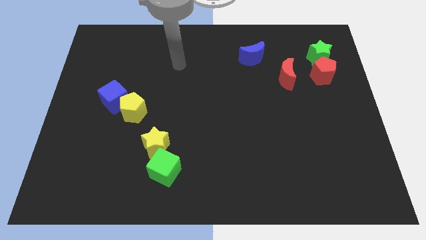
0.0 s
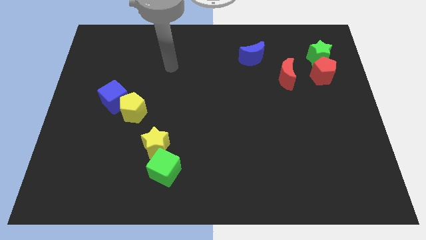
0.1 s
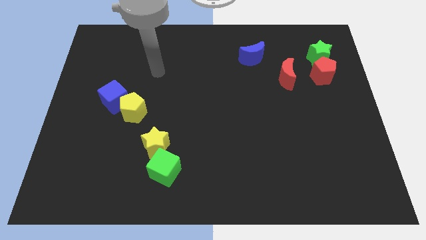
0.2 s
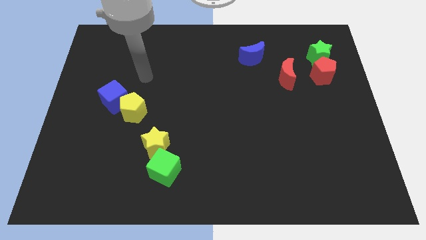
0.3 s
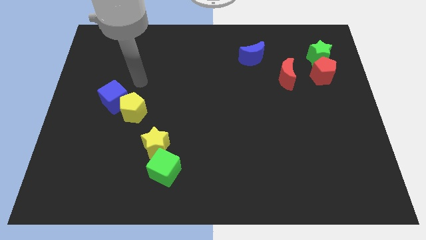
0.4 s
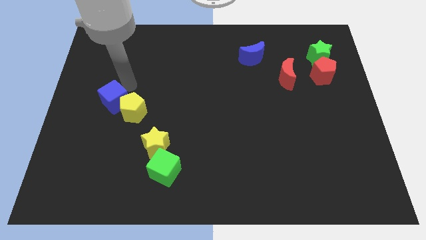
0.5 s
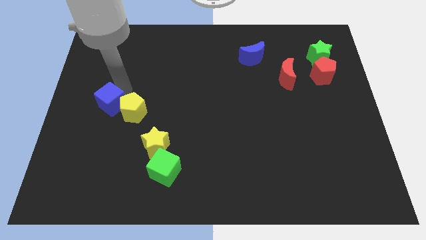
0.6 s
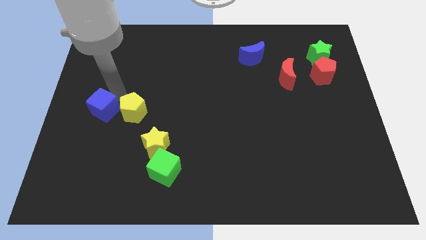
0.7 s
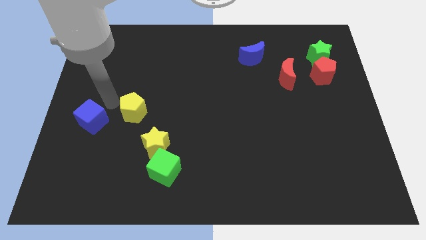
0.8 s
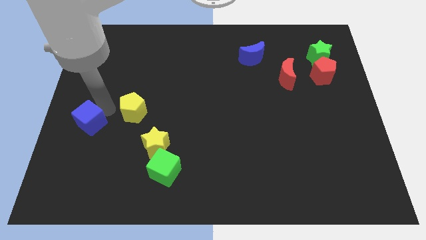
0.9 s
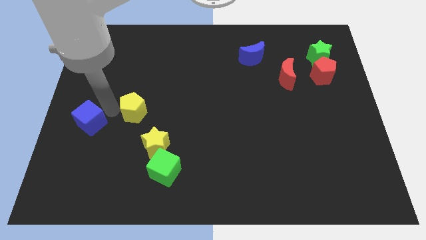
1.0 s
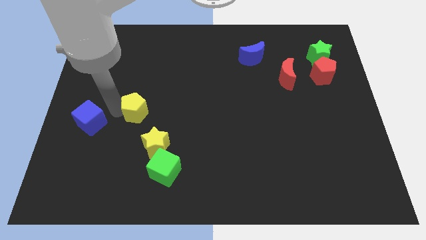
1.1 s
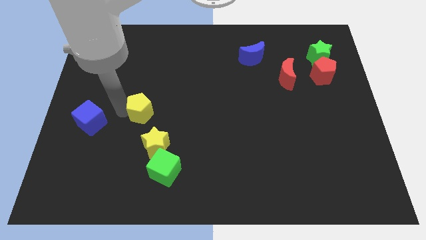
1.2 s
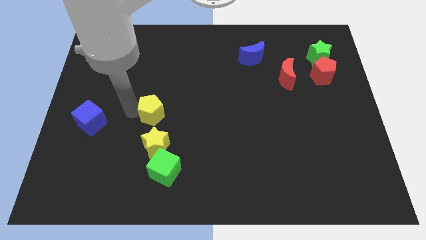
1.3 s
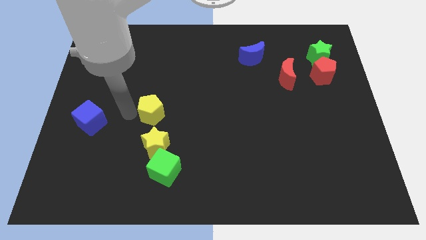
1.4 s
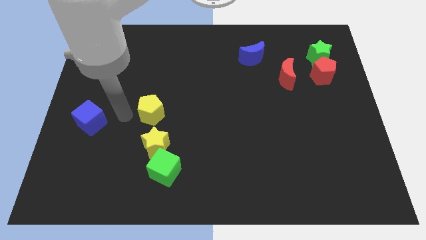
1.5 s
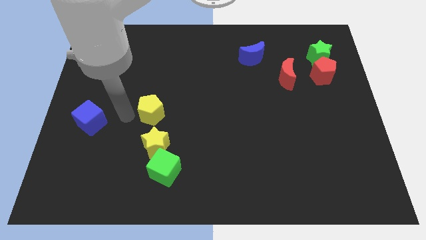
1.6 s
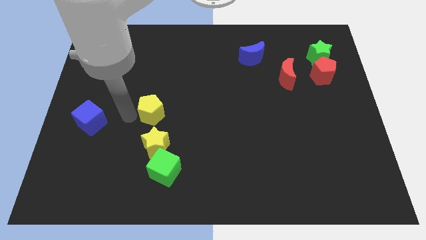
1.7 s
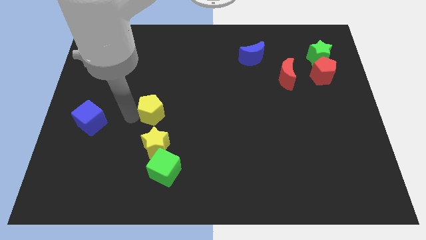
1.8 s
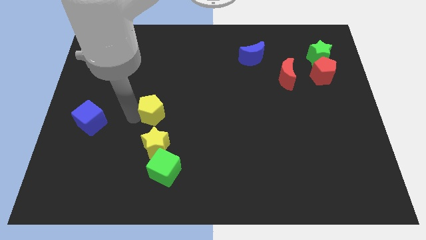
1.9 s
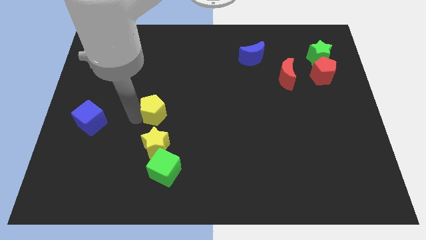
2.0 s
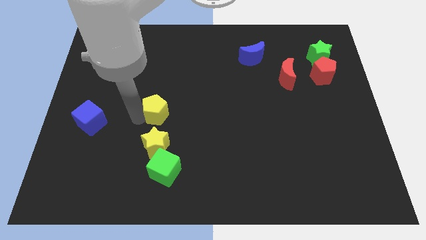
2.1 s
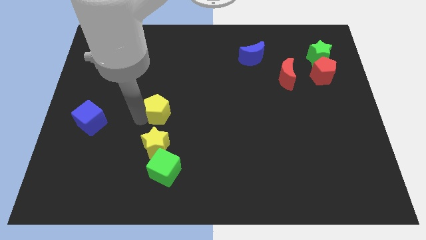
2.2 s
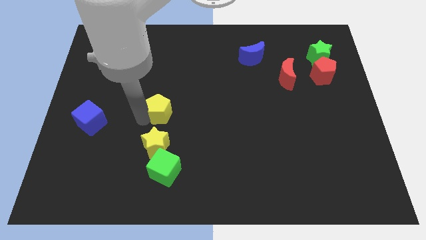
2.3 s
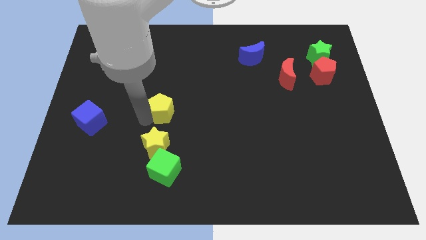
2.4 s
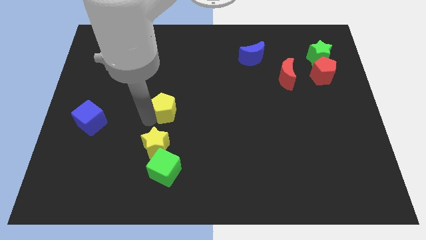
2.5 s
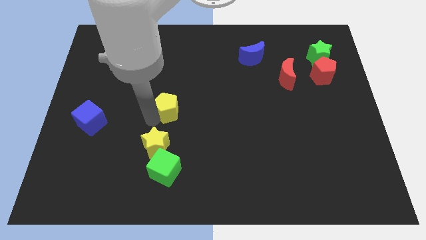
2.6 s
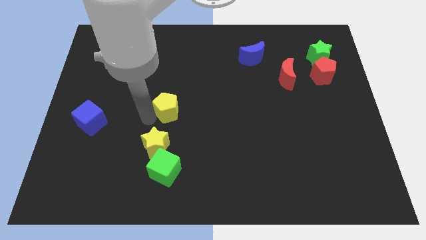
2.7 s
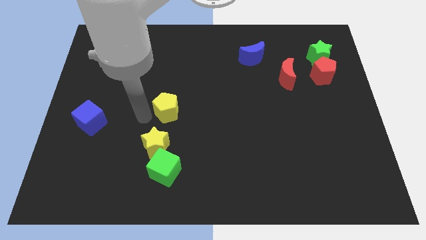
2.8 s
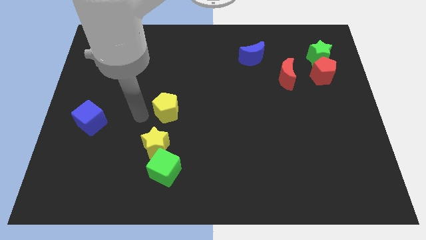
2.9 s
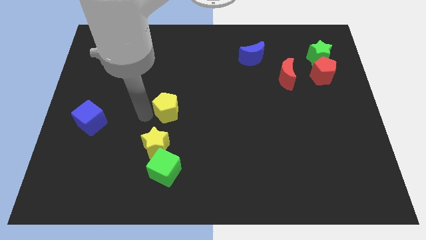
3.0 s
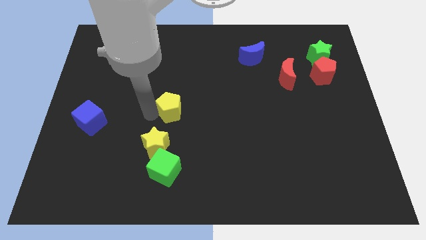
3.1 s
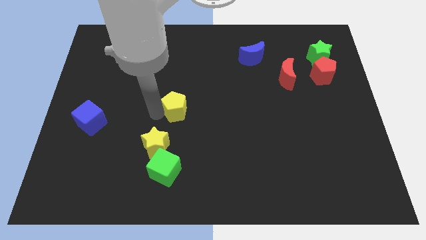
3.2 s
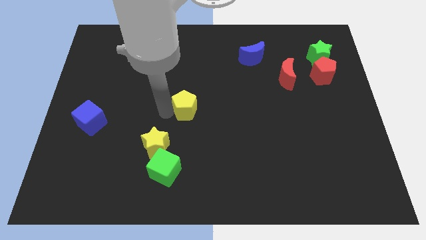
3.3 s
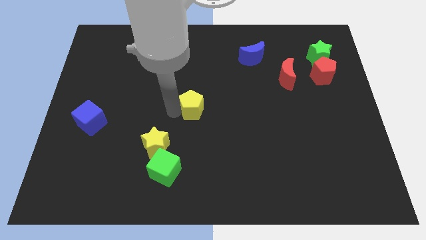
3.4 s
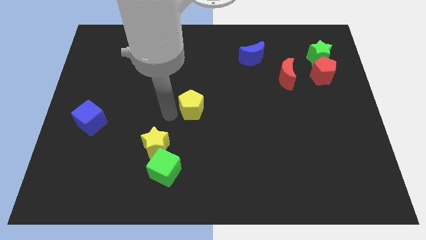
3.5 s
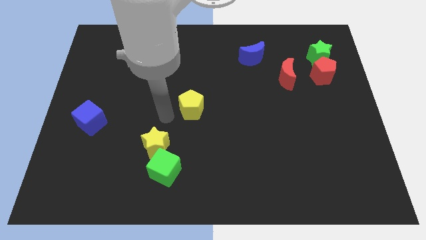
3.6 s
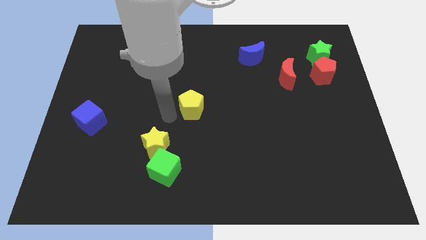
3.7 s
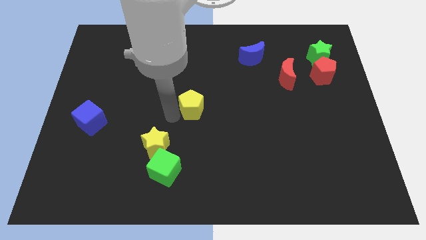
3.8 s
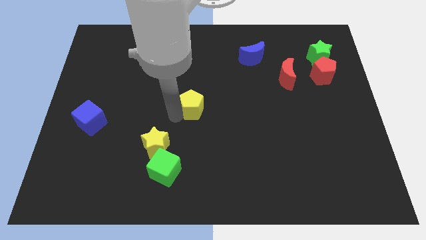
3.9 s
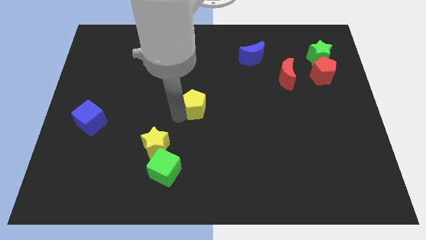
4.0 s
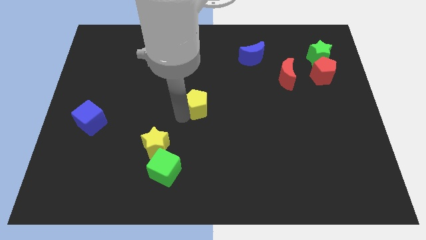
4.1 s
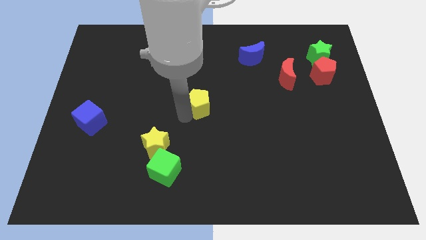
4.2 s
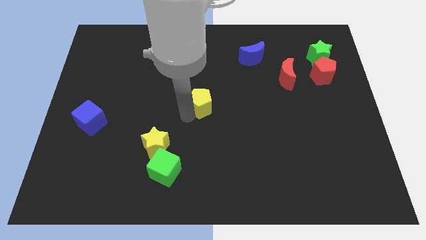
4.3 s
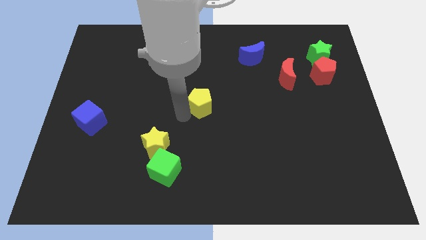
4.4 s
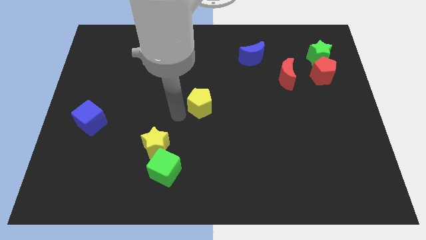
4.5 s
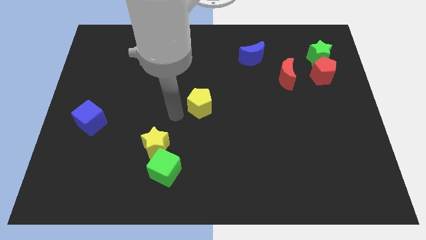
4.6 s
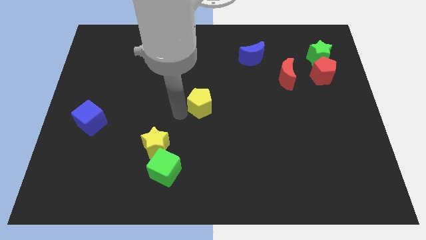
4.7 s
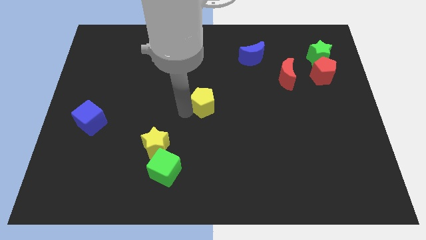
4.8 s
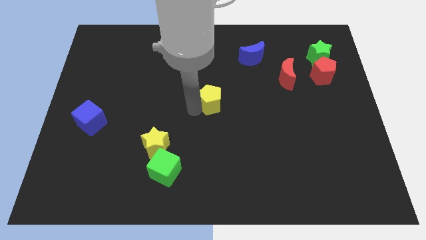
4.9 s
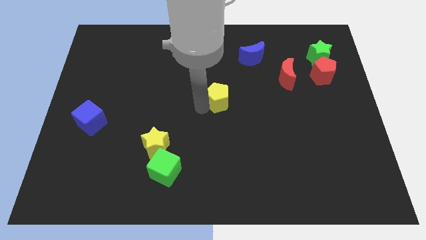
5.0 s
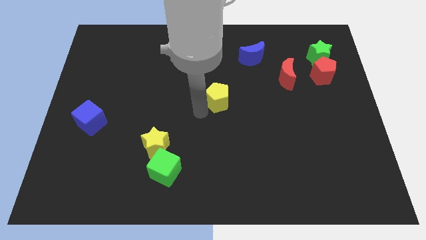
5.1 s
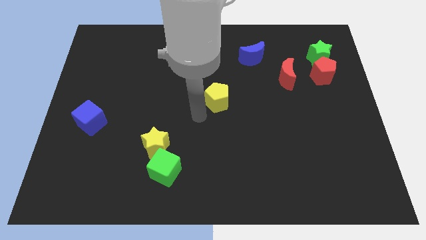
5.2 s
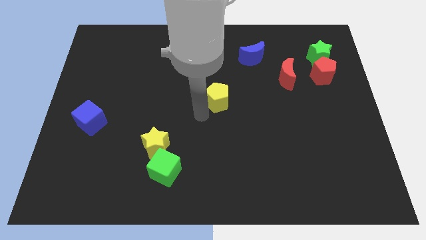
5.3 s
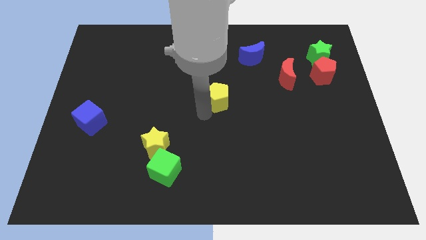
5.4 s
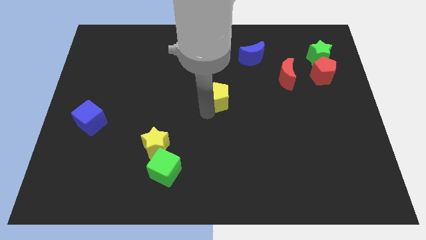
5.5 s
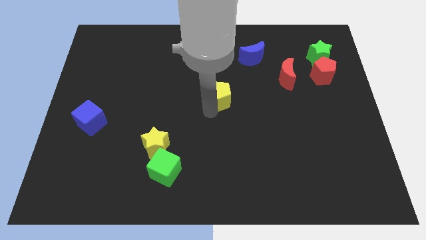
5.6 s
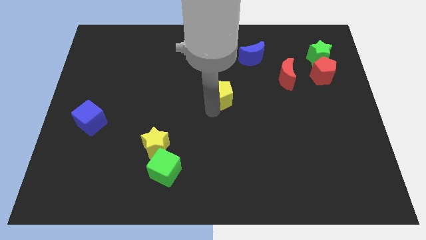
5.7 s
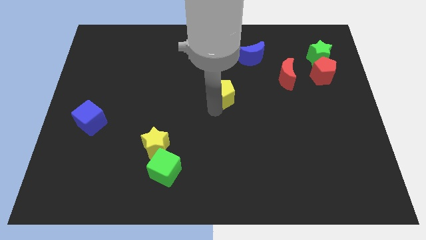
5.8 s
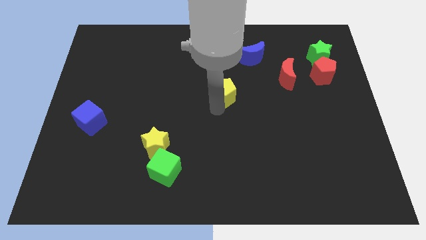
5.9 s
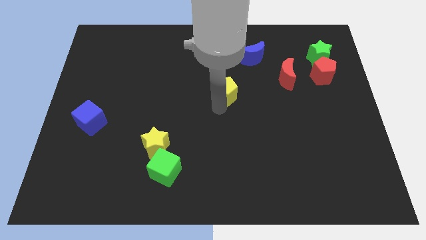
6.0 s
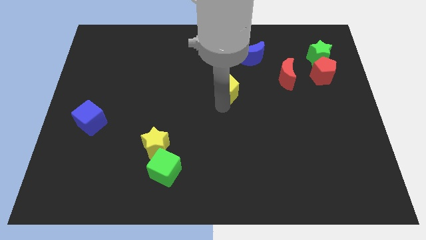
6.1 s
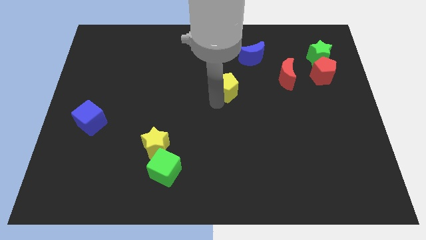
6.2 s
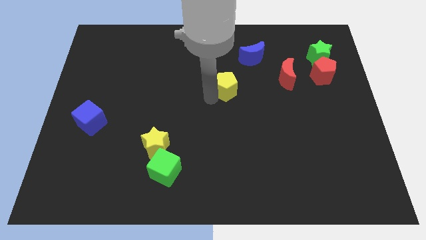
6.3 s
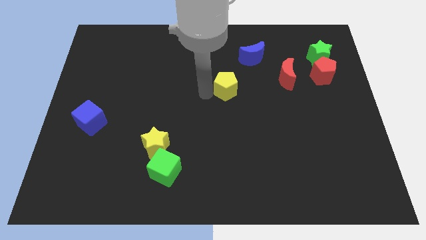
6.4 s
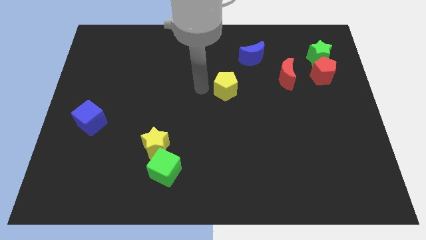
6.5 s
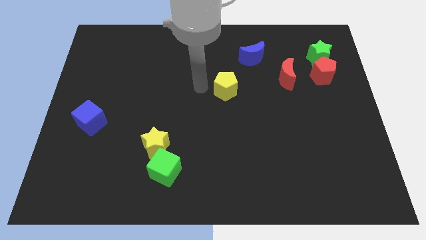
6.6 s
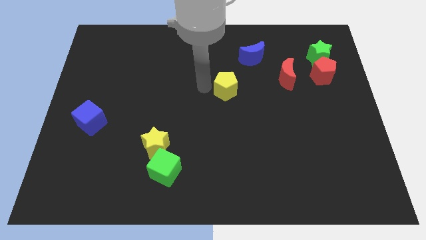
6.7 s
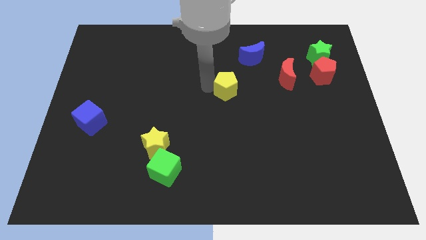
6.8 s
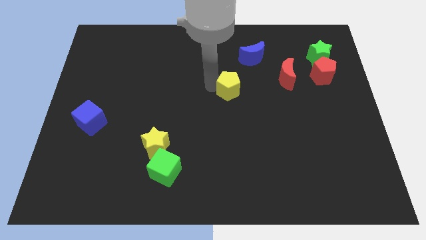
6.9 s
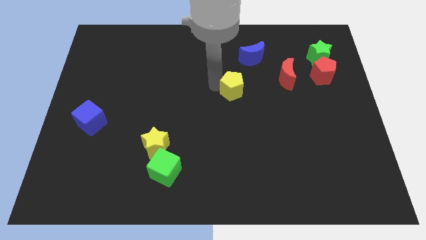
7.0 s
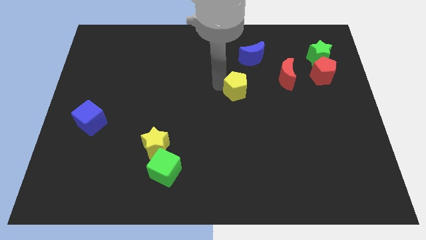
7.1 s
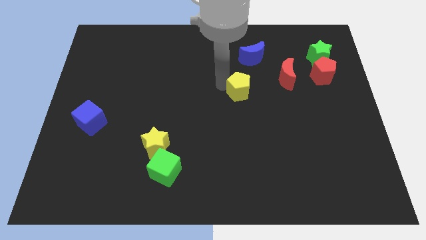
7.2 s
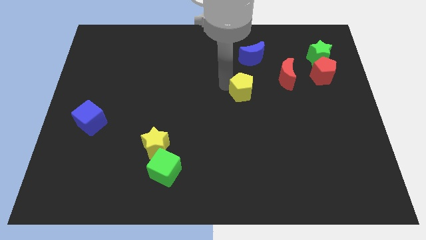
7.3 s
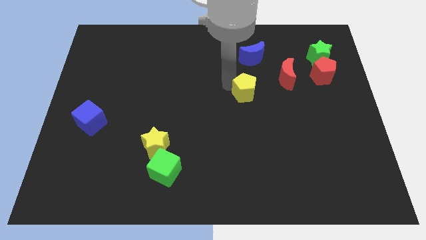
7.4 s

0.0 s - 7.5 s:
slide the yellow pentagon to the bottom left side of the red moon
